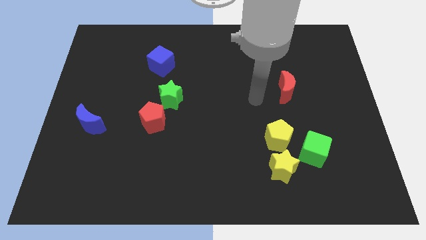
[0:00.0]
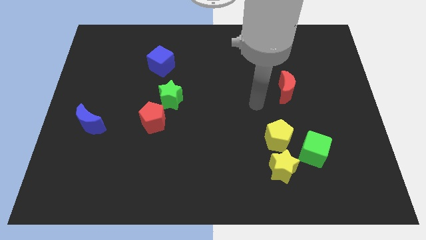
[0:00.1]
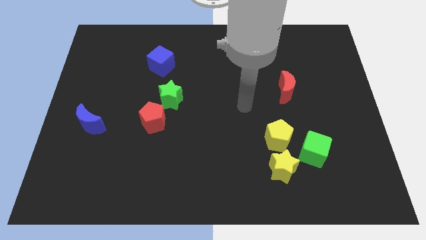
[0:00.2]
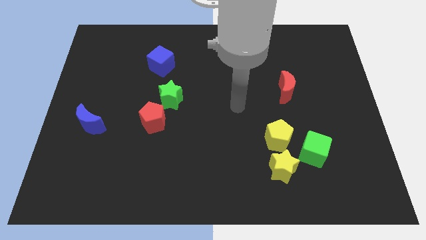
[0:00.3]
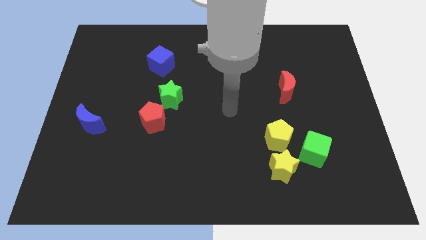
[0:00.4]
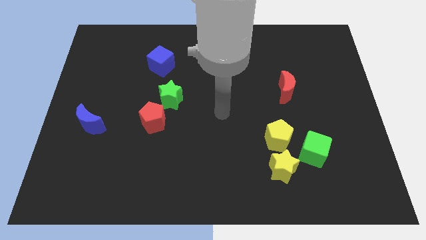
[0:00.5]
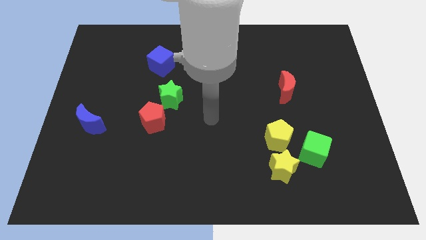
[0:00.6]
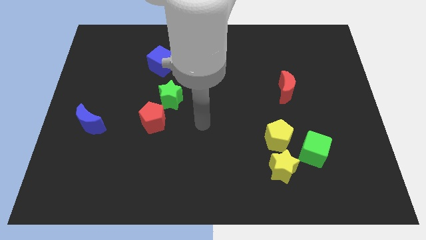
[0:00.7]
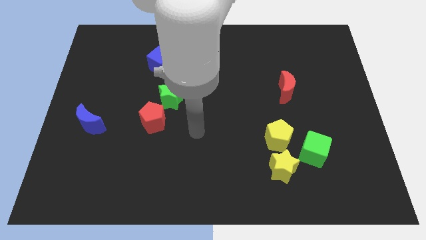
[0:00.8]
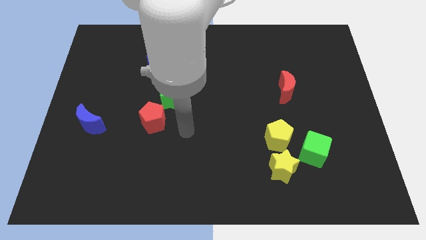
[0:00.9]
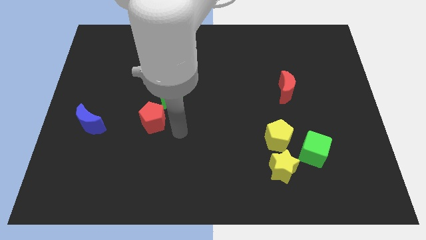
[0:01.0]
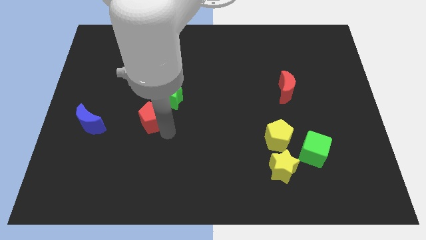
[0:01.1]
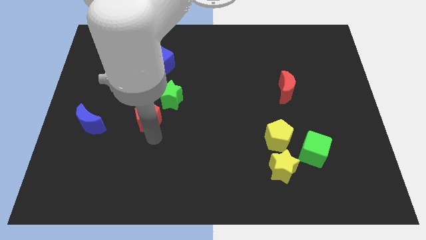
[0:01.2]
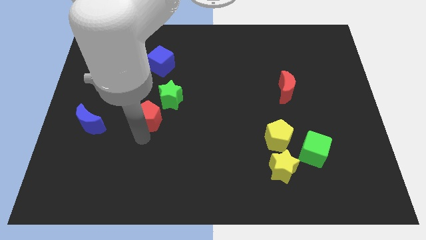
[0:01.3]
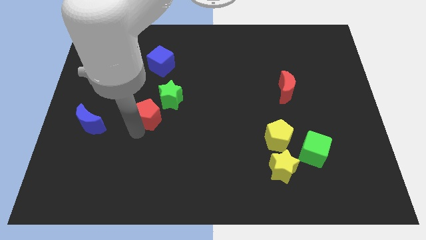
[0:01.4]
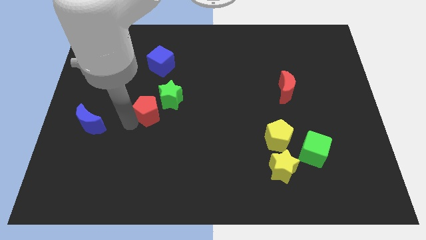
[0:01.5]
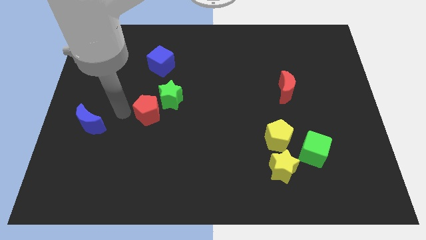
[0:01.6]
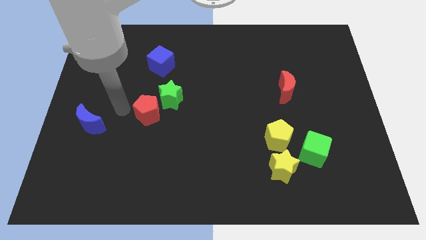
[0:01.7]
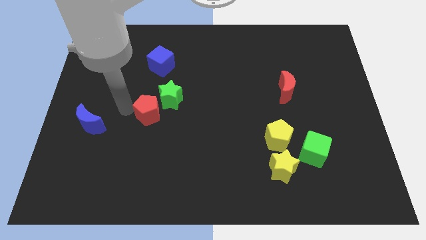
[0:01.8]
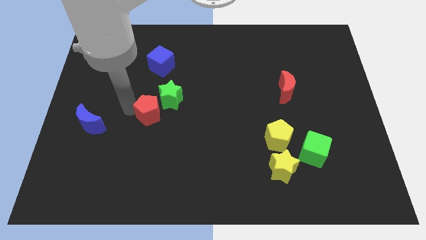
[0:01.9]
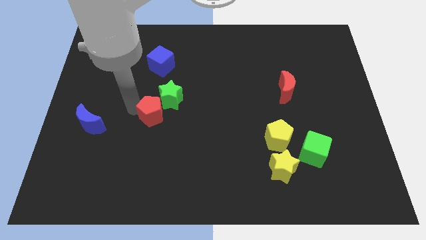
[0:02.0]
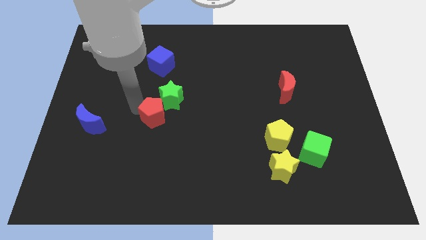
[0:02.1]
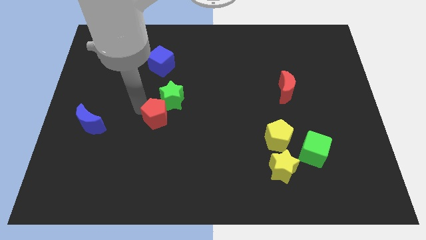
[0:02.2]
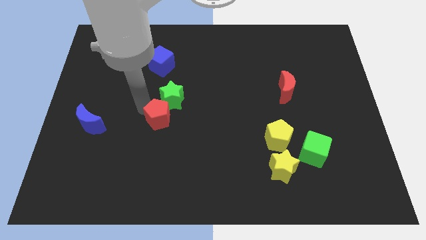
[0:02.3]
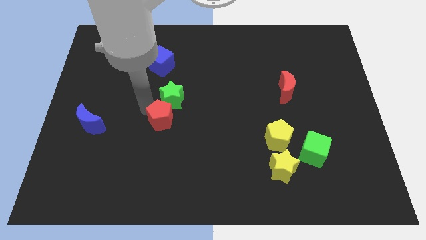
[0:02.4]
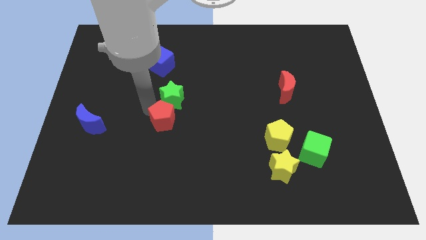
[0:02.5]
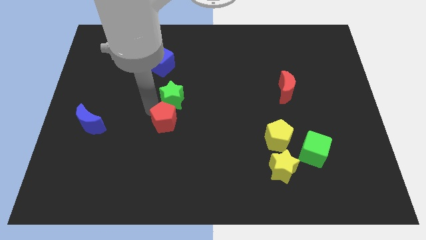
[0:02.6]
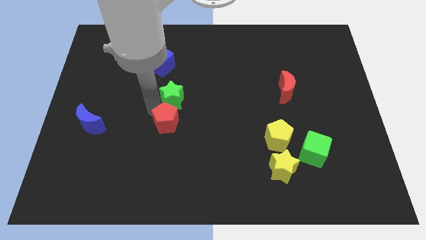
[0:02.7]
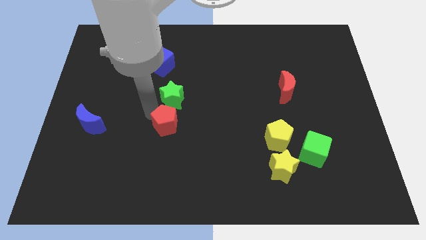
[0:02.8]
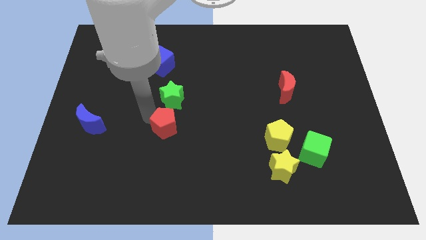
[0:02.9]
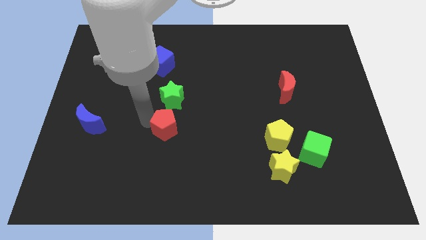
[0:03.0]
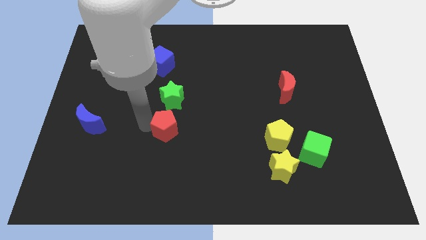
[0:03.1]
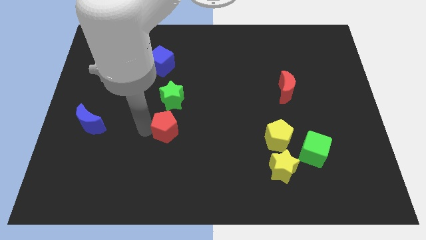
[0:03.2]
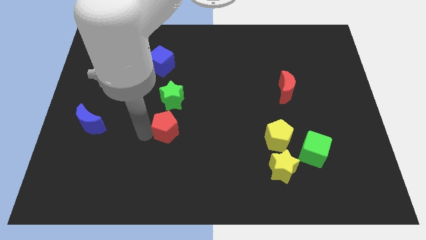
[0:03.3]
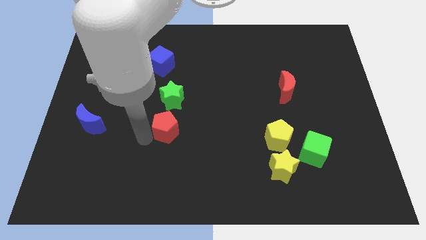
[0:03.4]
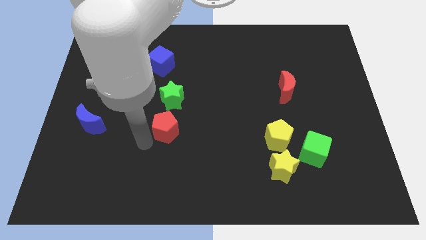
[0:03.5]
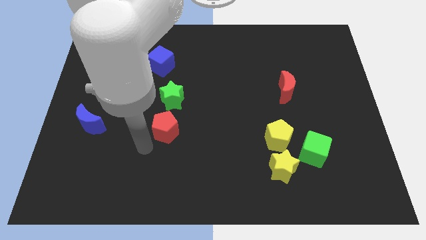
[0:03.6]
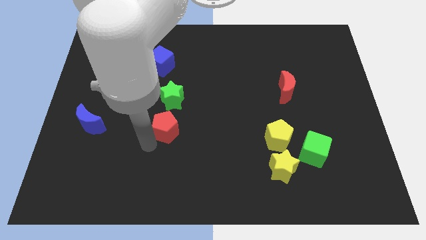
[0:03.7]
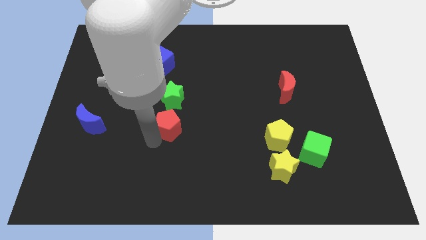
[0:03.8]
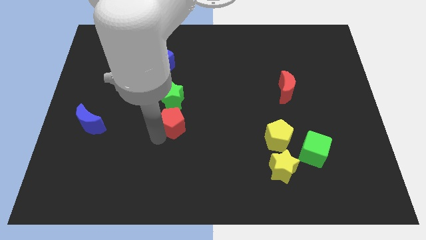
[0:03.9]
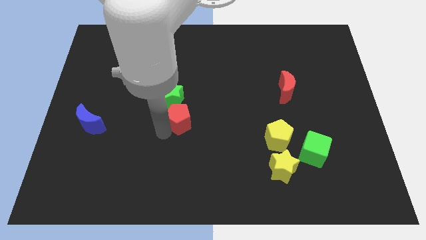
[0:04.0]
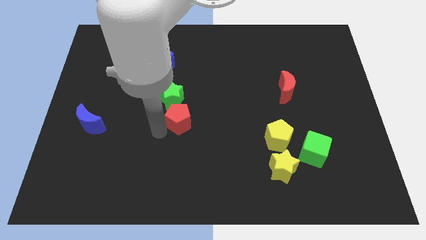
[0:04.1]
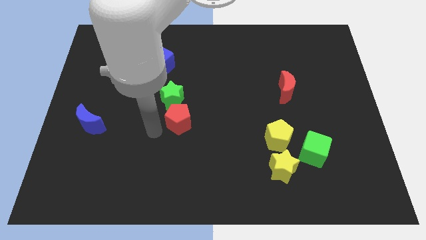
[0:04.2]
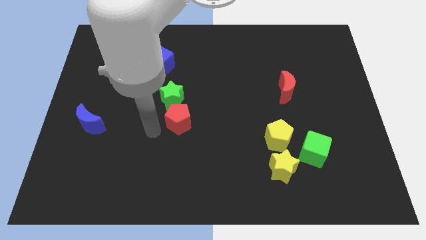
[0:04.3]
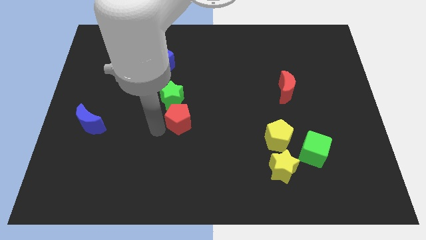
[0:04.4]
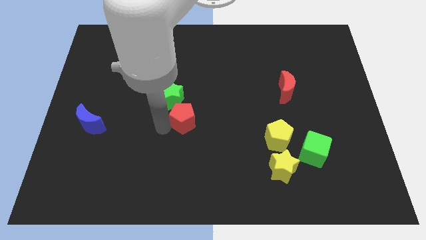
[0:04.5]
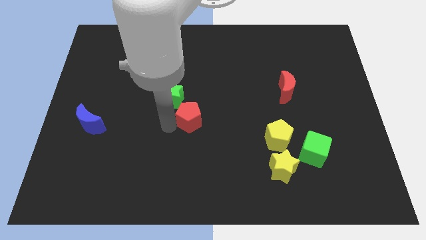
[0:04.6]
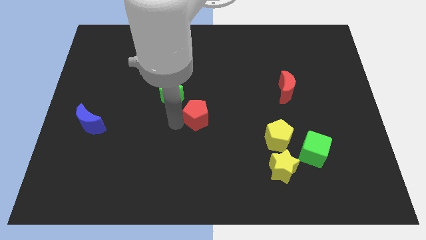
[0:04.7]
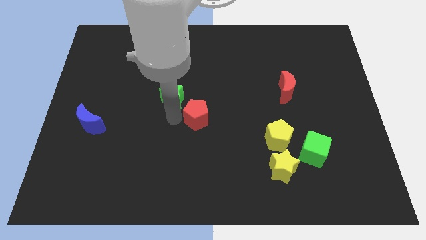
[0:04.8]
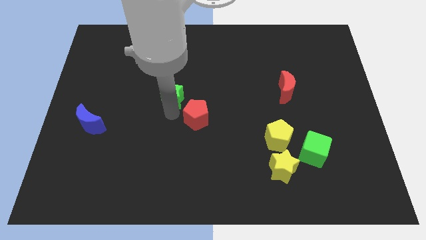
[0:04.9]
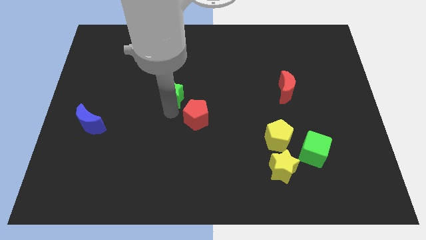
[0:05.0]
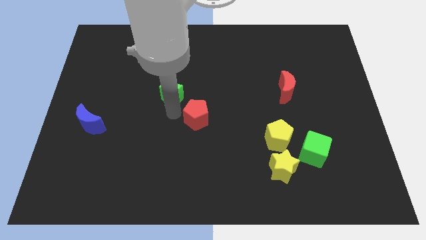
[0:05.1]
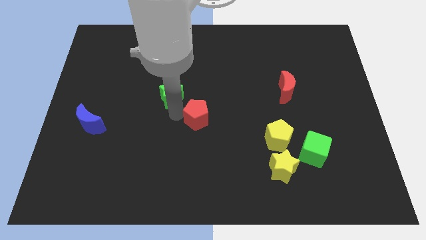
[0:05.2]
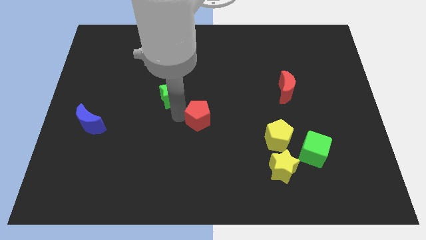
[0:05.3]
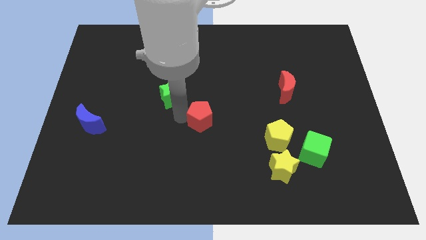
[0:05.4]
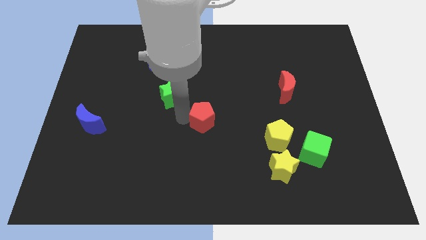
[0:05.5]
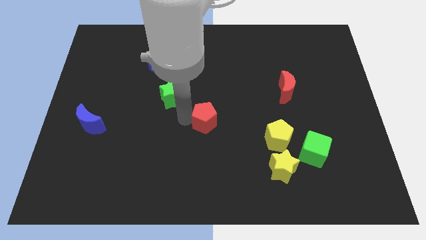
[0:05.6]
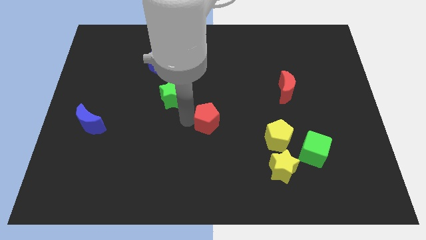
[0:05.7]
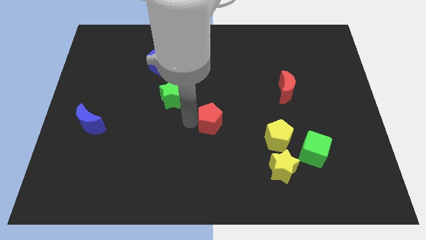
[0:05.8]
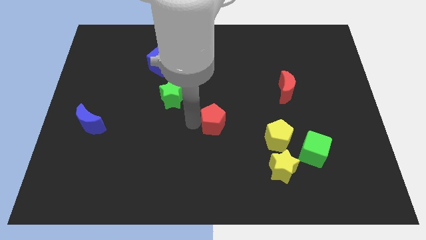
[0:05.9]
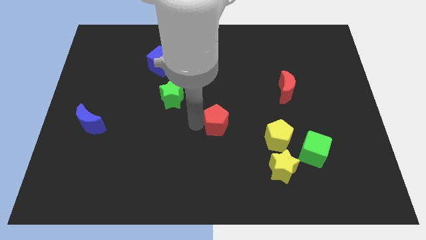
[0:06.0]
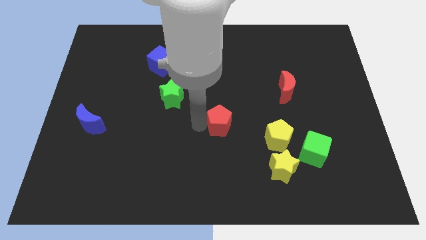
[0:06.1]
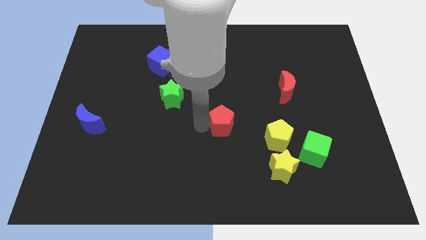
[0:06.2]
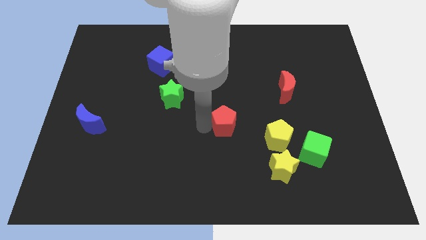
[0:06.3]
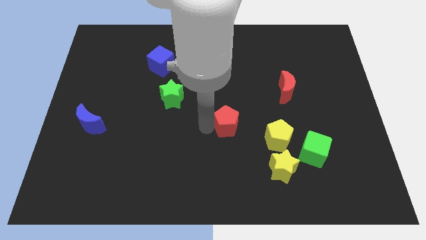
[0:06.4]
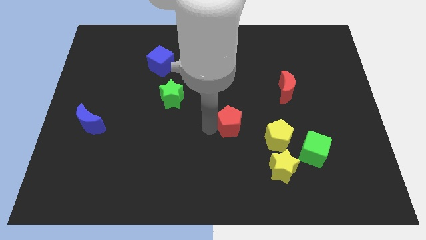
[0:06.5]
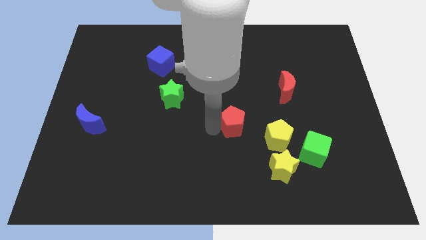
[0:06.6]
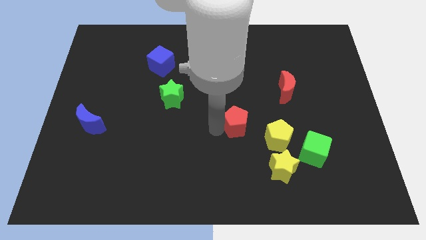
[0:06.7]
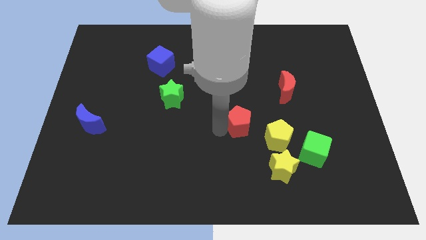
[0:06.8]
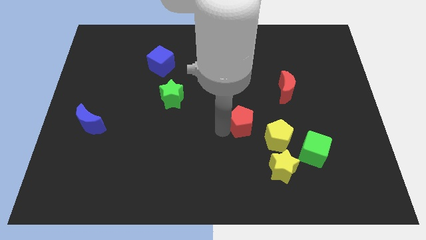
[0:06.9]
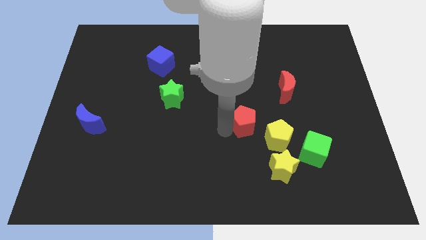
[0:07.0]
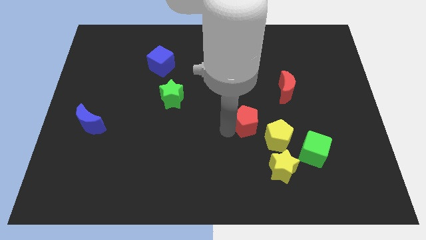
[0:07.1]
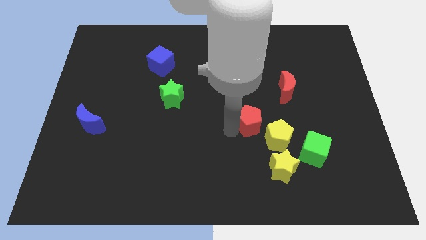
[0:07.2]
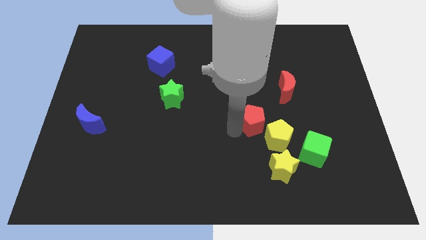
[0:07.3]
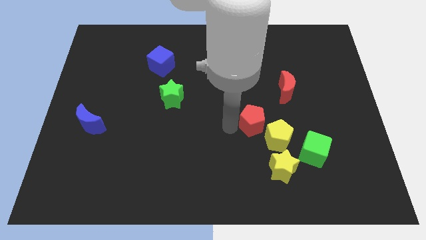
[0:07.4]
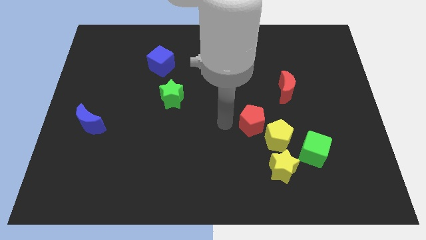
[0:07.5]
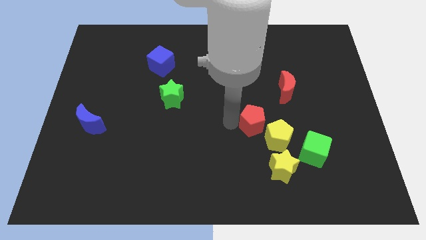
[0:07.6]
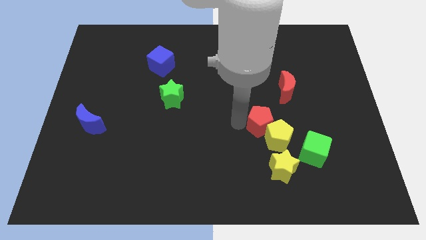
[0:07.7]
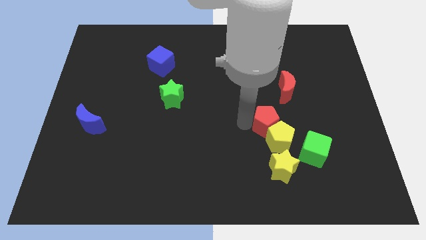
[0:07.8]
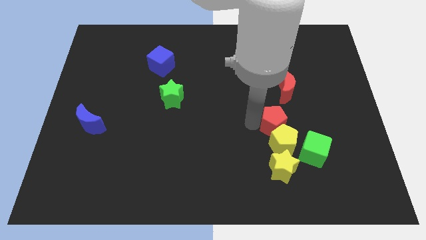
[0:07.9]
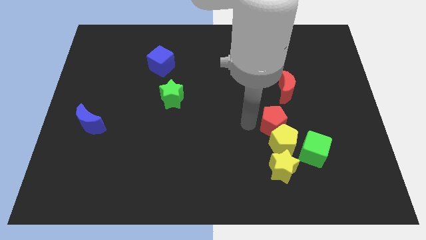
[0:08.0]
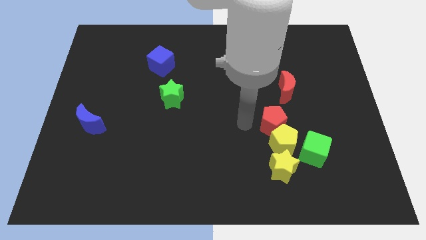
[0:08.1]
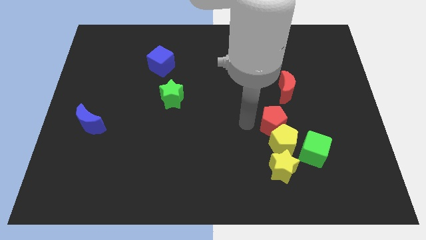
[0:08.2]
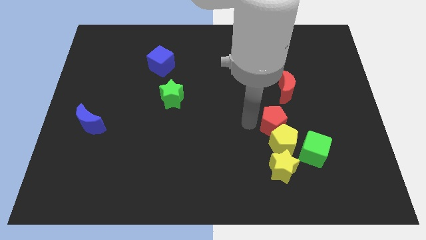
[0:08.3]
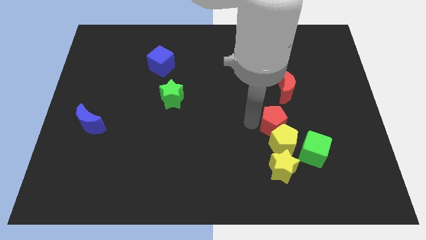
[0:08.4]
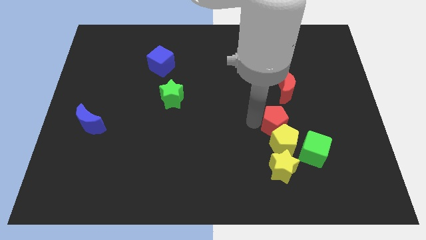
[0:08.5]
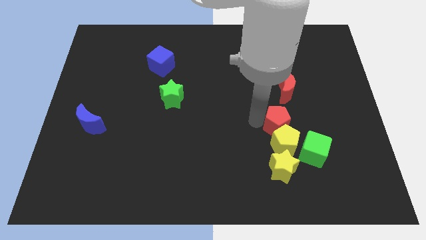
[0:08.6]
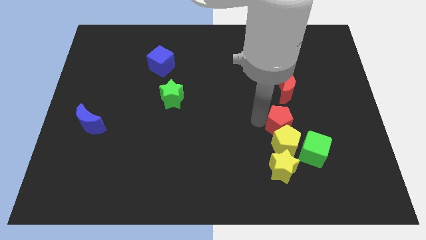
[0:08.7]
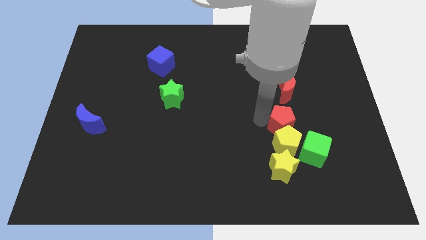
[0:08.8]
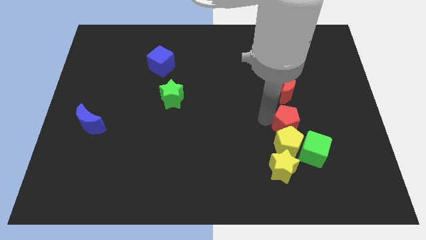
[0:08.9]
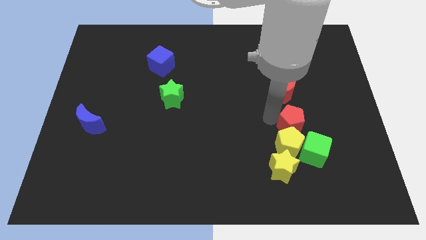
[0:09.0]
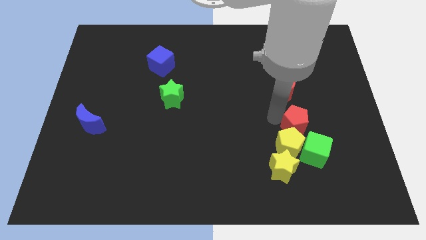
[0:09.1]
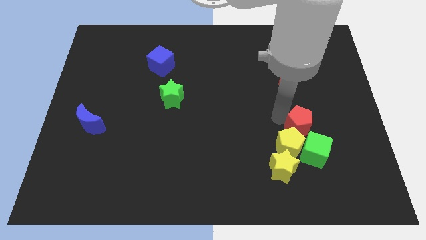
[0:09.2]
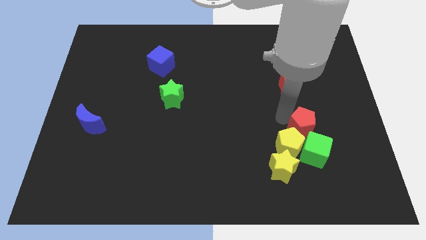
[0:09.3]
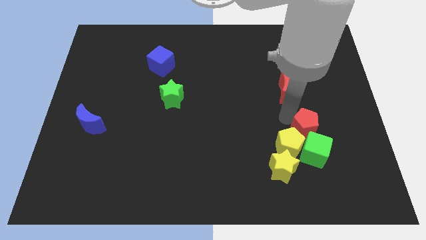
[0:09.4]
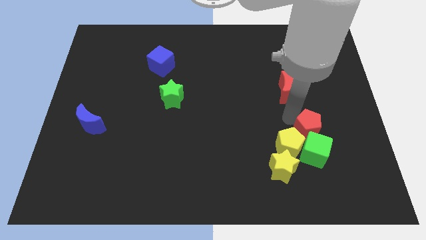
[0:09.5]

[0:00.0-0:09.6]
move the red pentagon to the top right of the green cube
